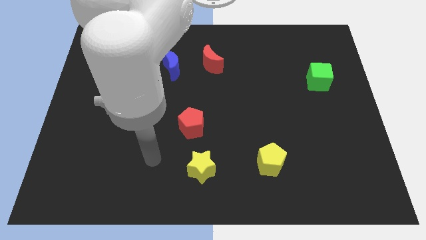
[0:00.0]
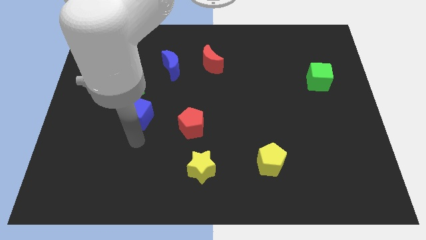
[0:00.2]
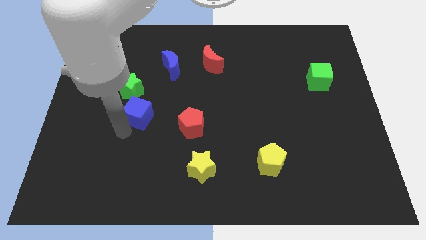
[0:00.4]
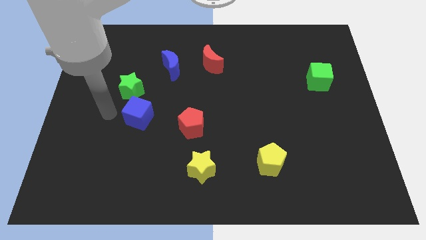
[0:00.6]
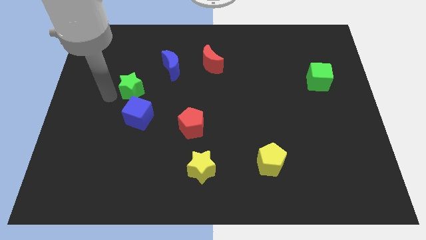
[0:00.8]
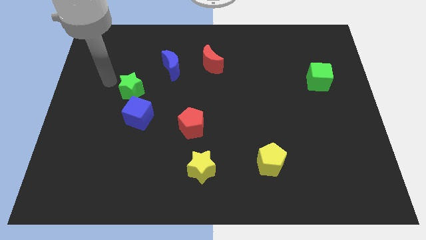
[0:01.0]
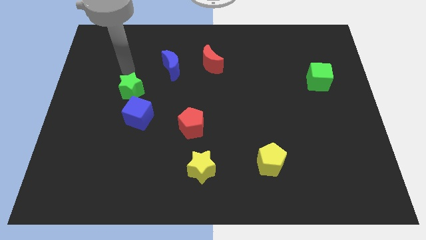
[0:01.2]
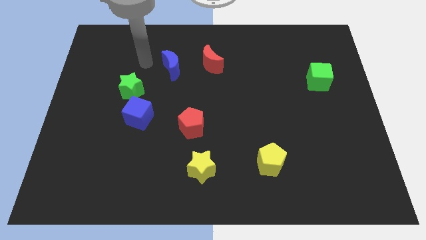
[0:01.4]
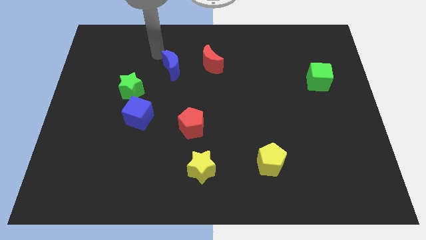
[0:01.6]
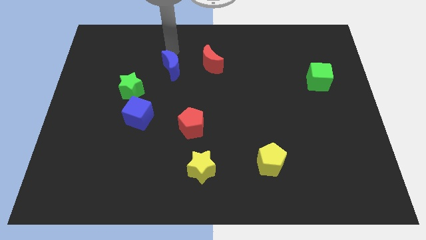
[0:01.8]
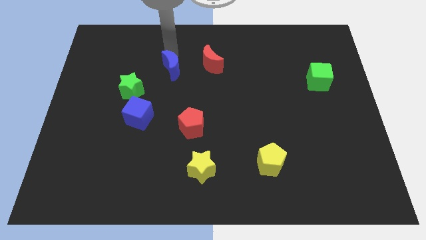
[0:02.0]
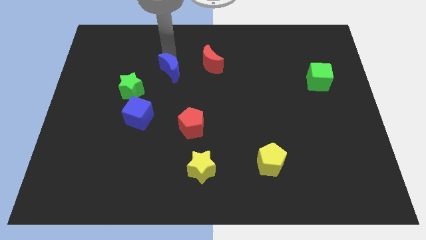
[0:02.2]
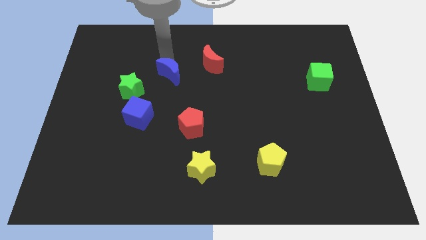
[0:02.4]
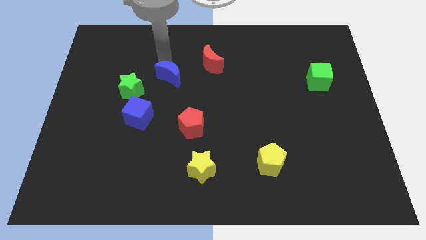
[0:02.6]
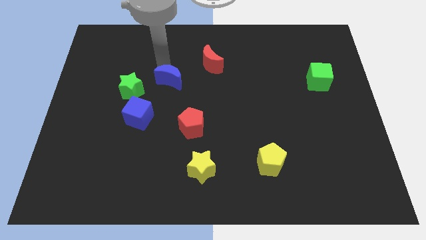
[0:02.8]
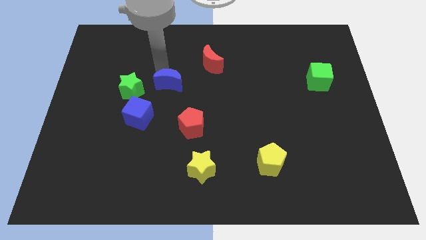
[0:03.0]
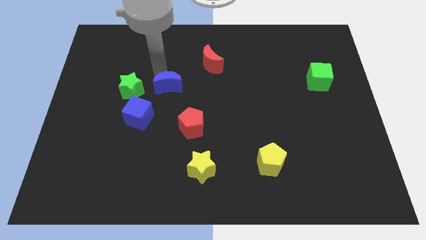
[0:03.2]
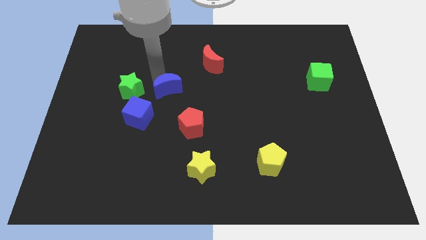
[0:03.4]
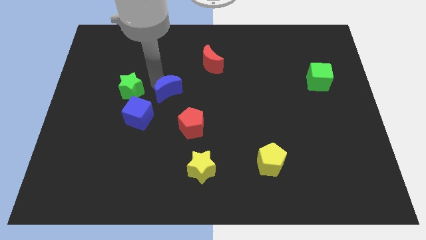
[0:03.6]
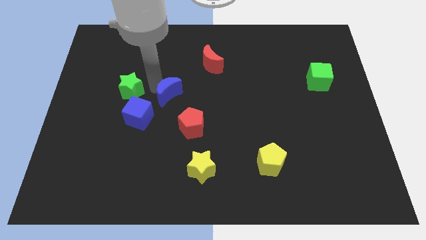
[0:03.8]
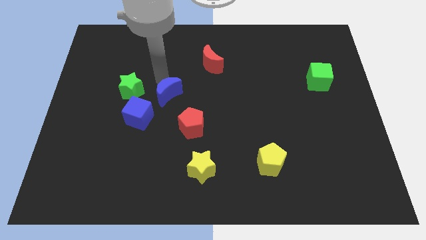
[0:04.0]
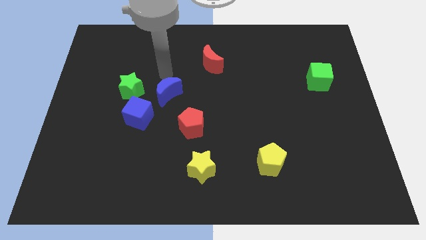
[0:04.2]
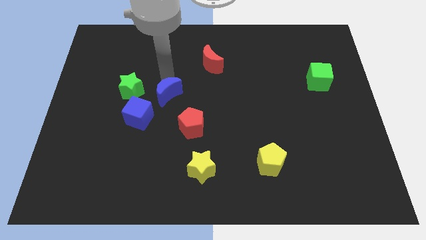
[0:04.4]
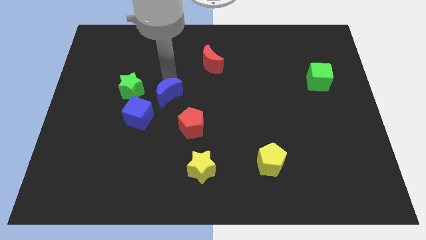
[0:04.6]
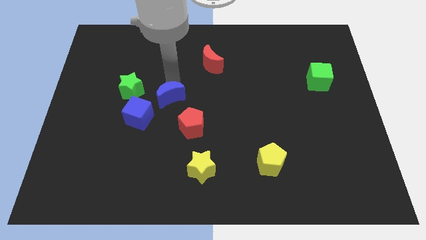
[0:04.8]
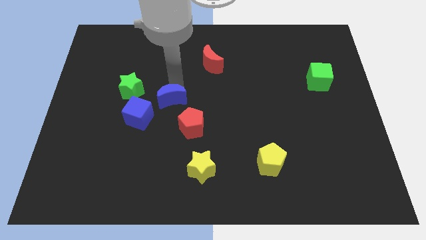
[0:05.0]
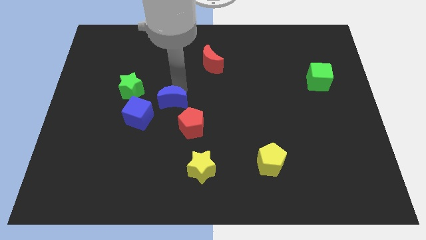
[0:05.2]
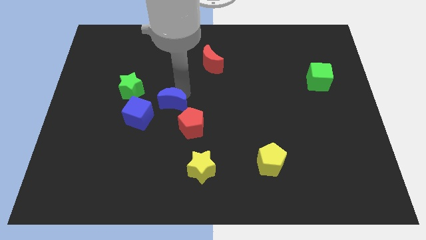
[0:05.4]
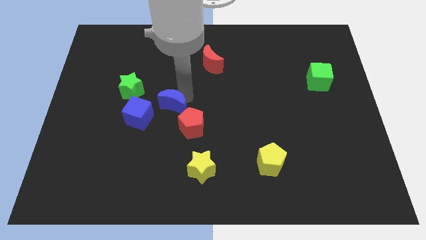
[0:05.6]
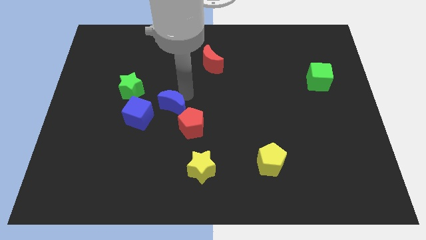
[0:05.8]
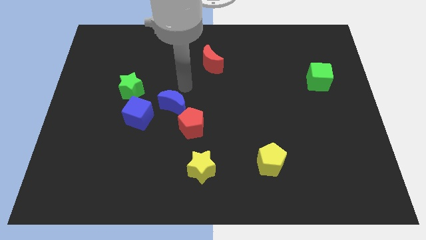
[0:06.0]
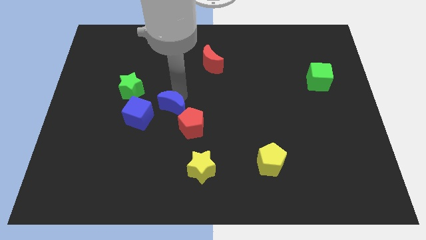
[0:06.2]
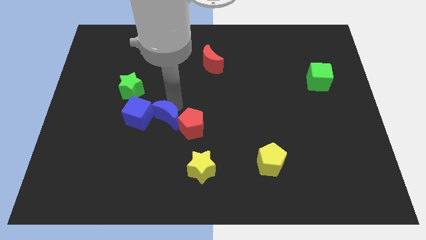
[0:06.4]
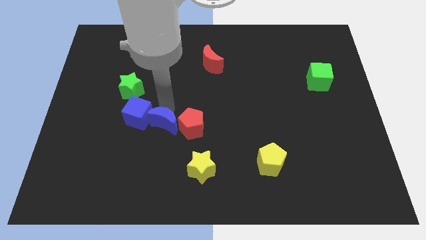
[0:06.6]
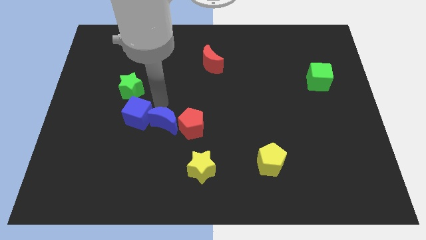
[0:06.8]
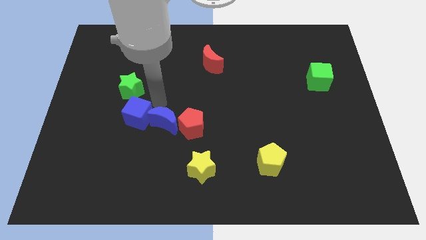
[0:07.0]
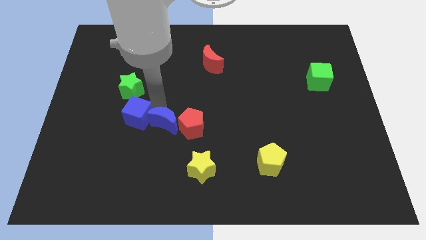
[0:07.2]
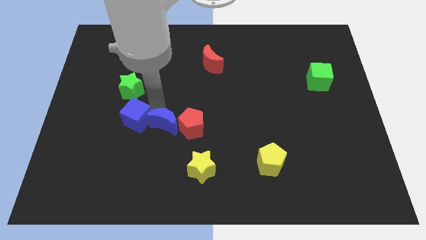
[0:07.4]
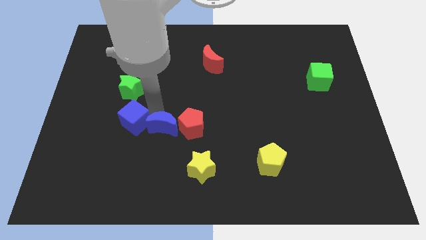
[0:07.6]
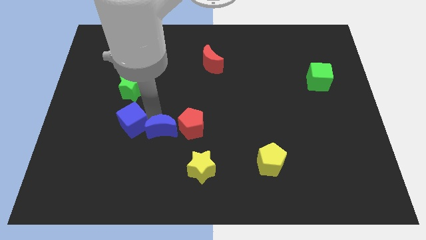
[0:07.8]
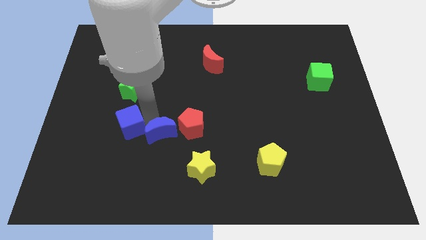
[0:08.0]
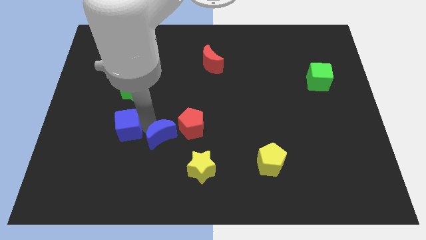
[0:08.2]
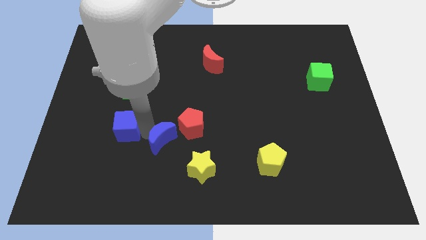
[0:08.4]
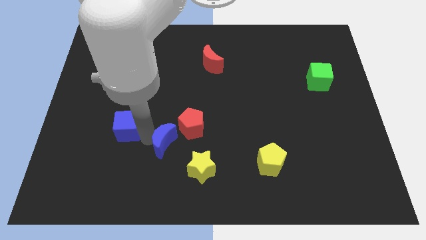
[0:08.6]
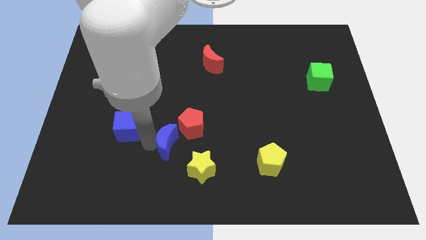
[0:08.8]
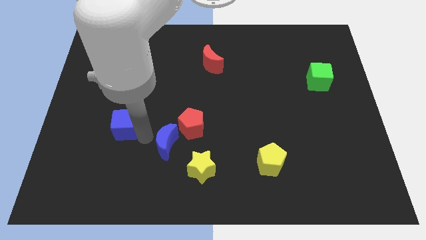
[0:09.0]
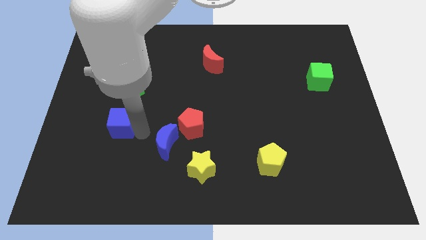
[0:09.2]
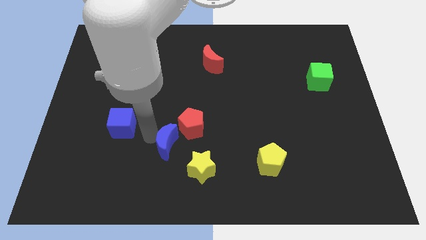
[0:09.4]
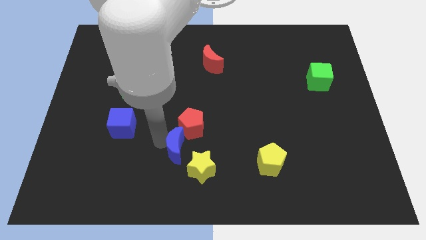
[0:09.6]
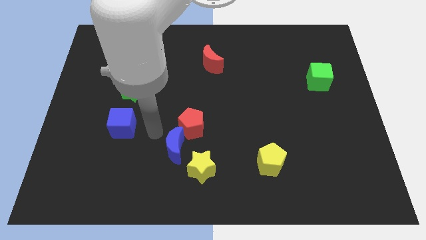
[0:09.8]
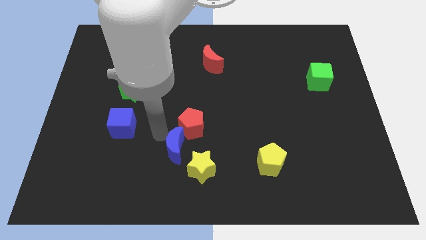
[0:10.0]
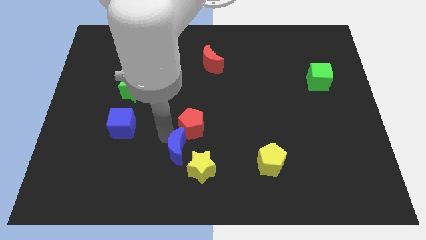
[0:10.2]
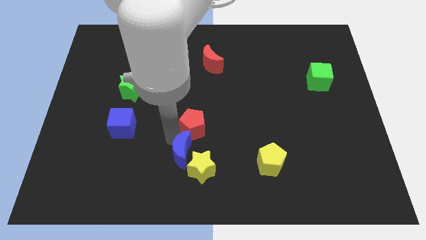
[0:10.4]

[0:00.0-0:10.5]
slide the blue moon towards the yellow star

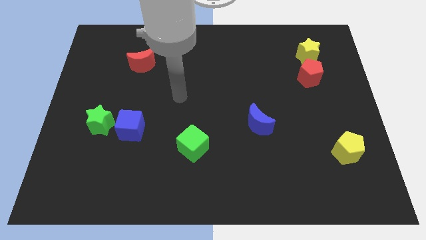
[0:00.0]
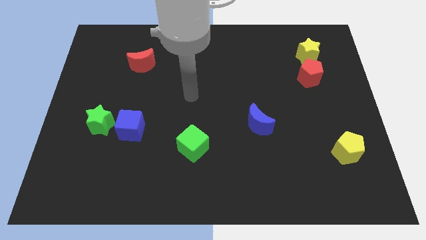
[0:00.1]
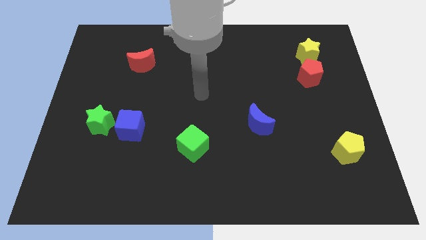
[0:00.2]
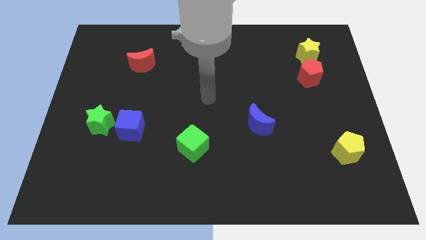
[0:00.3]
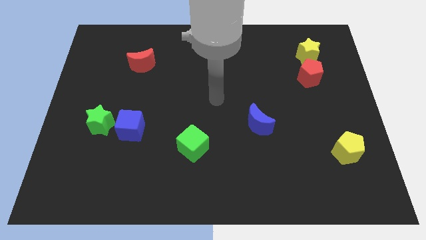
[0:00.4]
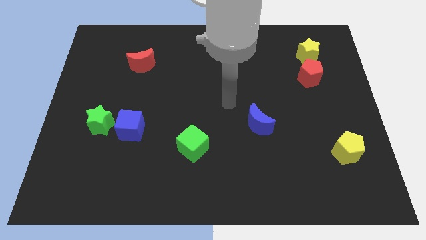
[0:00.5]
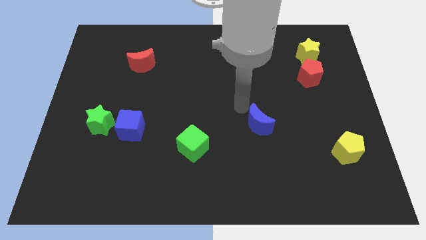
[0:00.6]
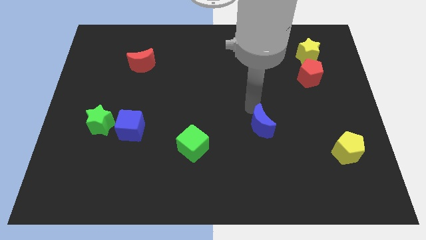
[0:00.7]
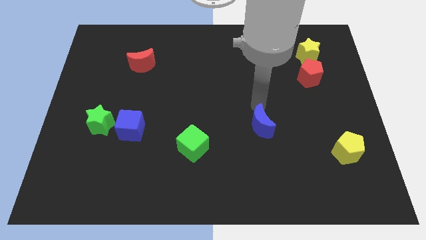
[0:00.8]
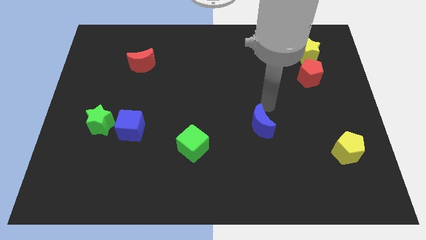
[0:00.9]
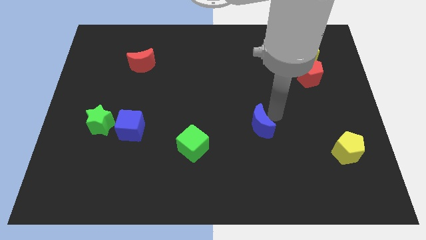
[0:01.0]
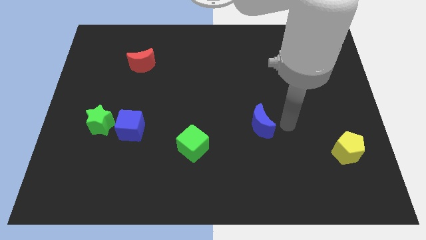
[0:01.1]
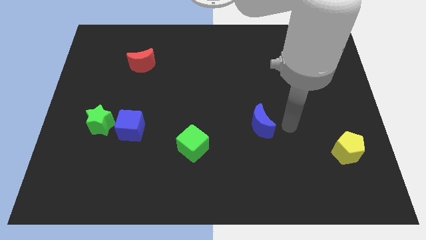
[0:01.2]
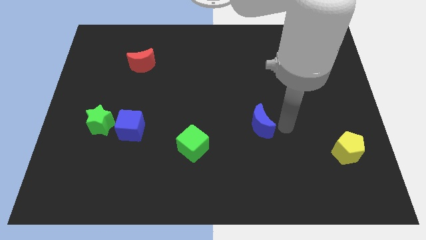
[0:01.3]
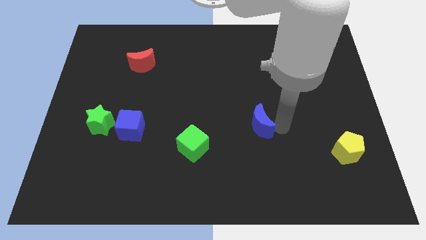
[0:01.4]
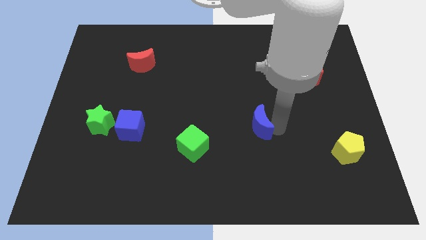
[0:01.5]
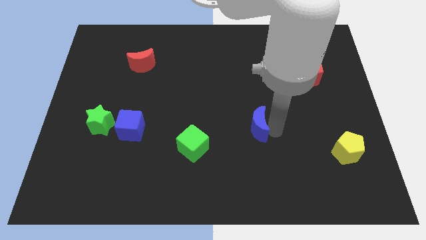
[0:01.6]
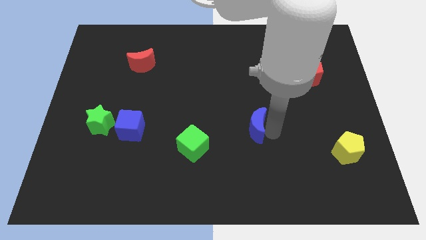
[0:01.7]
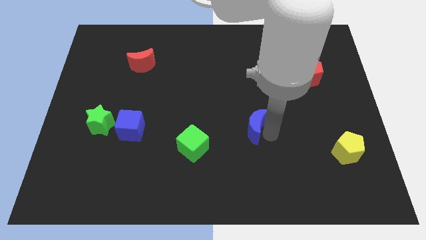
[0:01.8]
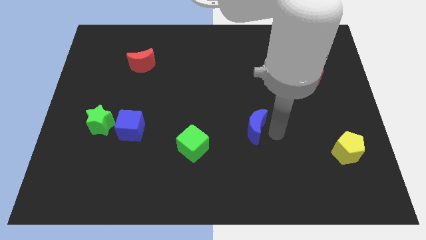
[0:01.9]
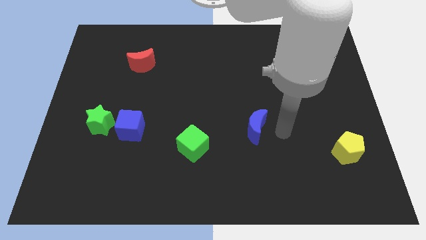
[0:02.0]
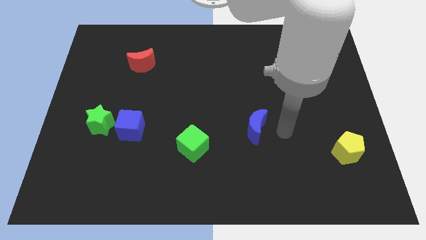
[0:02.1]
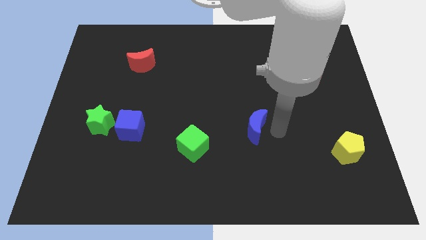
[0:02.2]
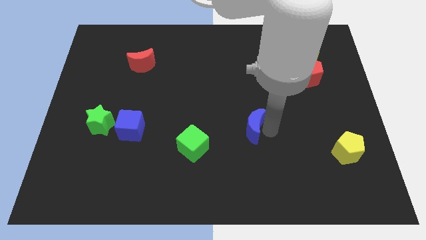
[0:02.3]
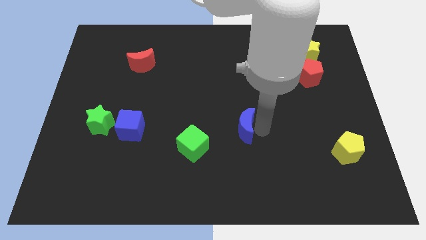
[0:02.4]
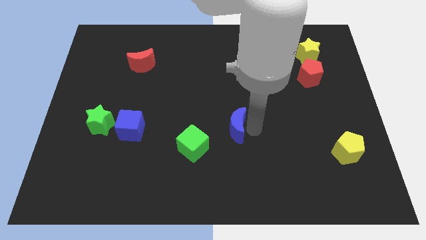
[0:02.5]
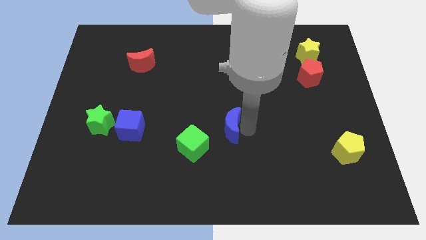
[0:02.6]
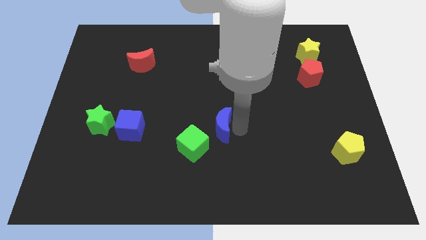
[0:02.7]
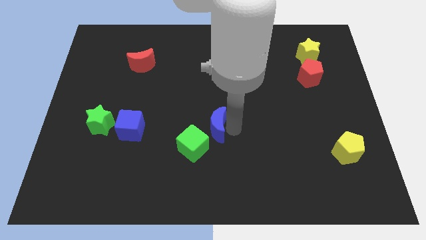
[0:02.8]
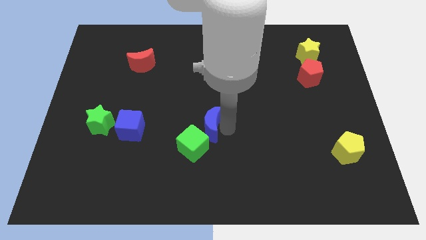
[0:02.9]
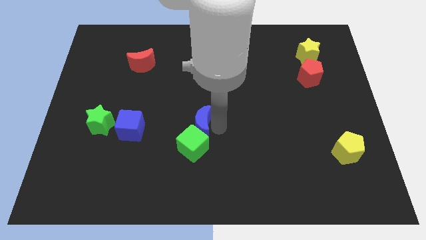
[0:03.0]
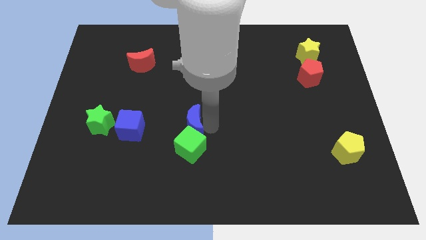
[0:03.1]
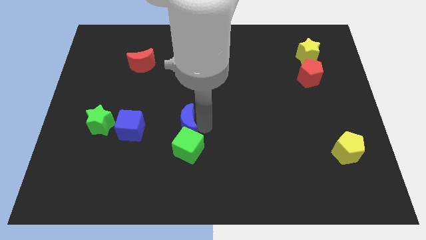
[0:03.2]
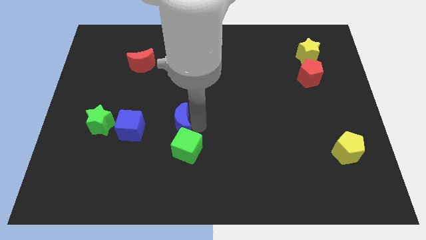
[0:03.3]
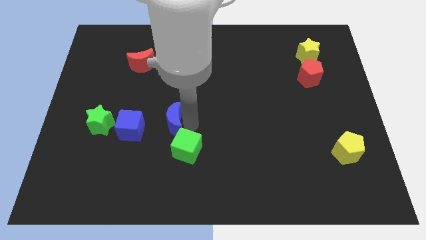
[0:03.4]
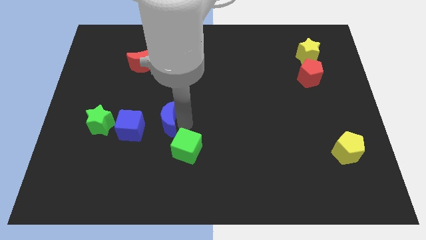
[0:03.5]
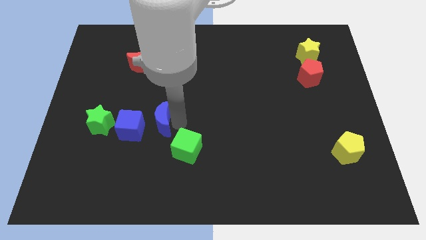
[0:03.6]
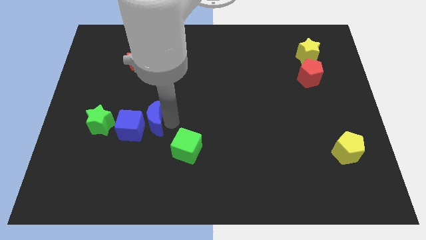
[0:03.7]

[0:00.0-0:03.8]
slide the blue moon close to the blue cube
